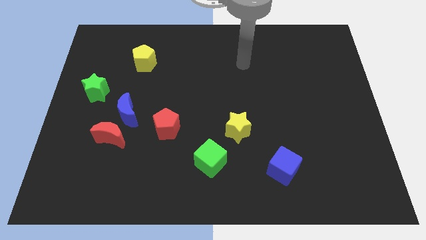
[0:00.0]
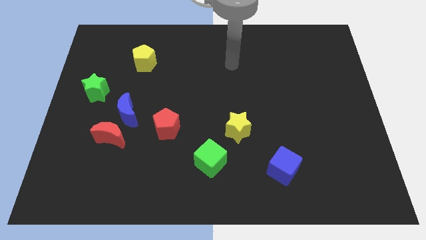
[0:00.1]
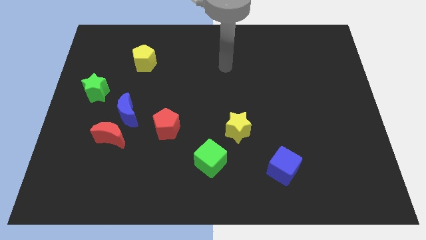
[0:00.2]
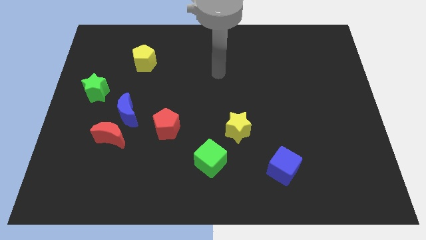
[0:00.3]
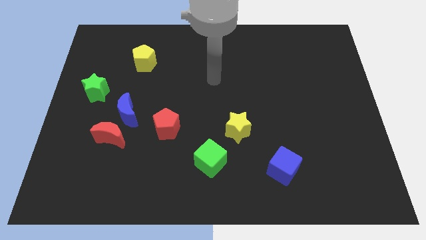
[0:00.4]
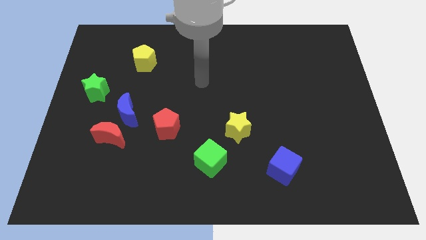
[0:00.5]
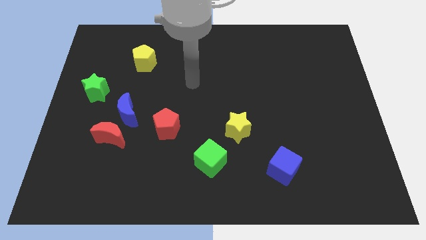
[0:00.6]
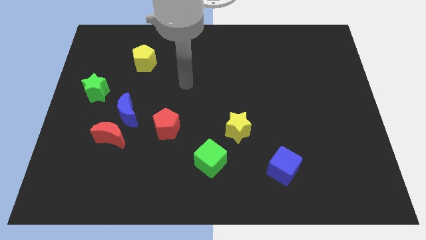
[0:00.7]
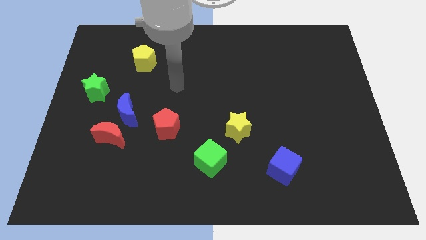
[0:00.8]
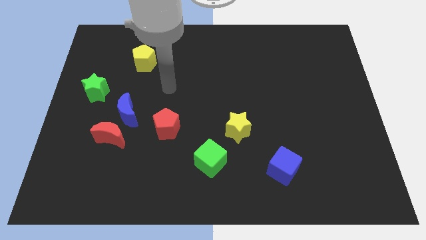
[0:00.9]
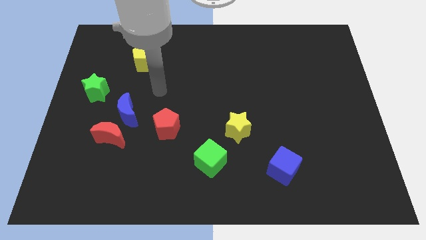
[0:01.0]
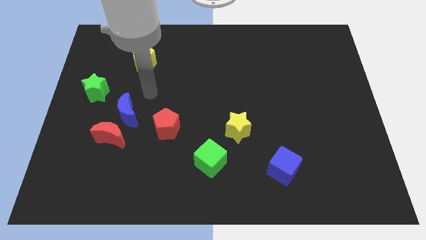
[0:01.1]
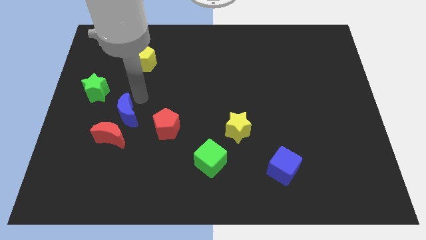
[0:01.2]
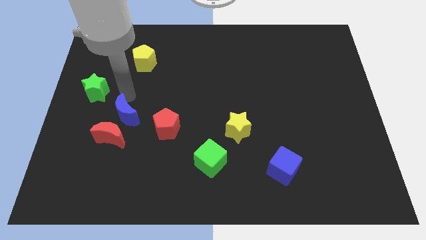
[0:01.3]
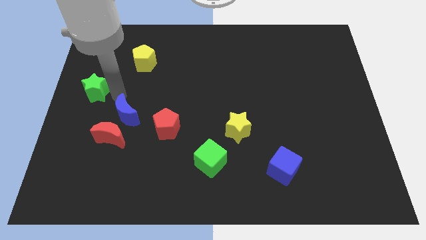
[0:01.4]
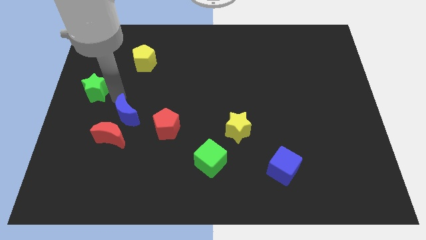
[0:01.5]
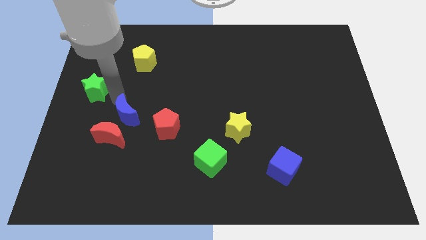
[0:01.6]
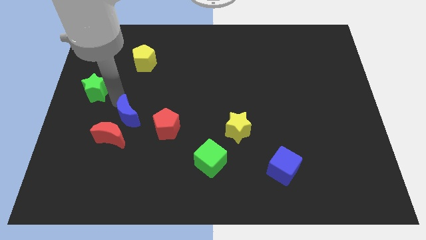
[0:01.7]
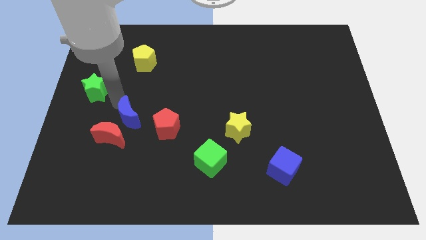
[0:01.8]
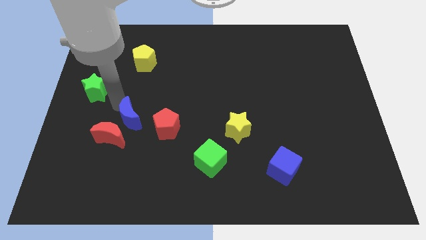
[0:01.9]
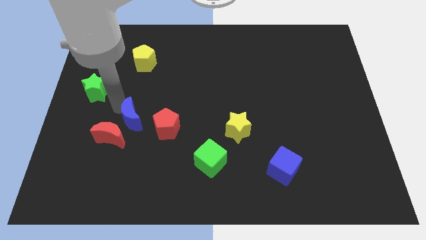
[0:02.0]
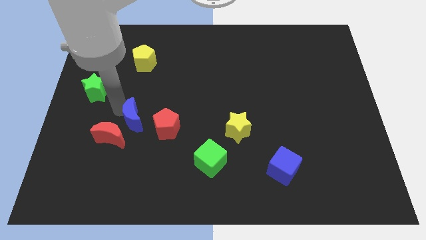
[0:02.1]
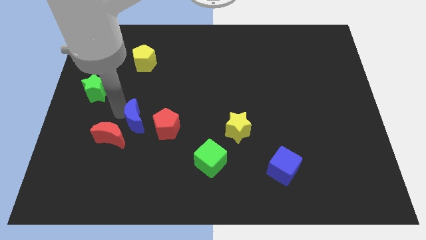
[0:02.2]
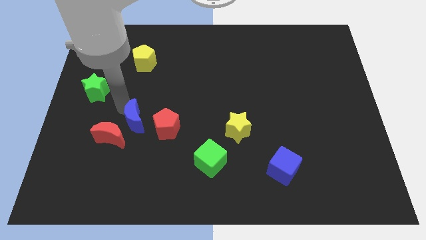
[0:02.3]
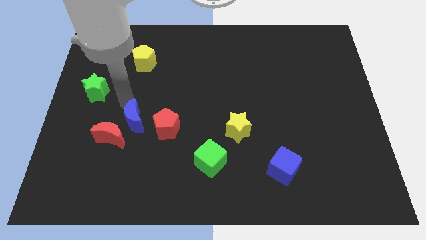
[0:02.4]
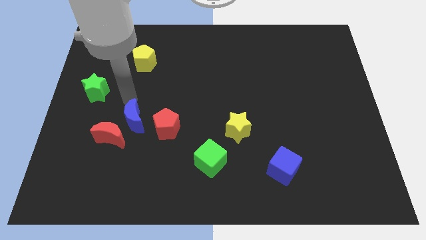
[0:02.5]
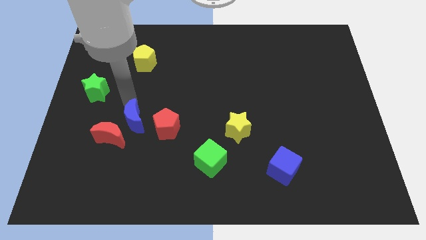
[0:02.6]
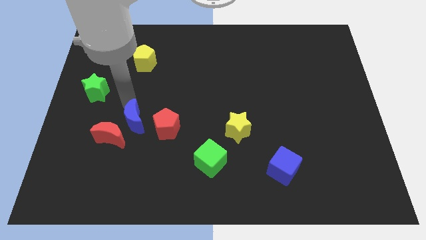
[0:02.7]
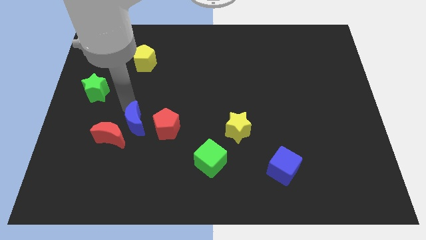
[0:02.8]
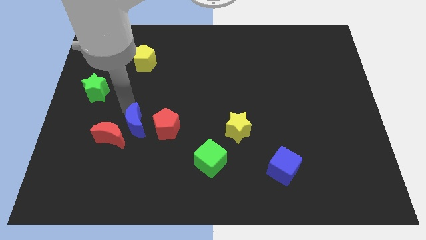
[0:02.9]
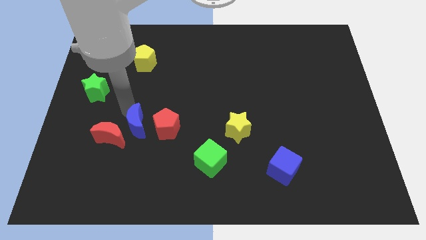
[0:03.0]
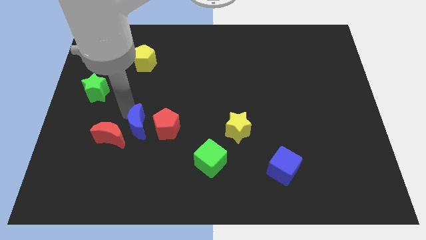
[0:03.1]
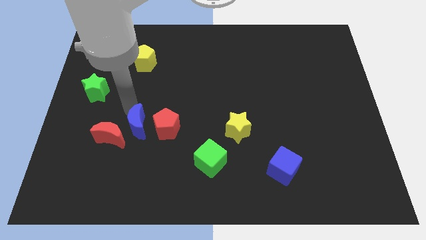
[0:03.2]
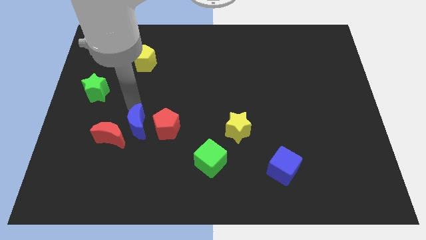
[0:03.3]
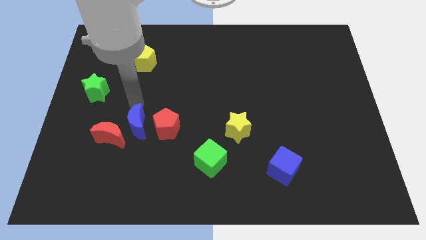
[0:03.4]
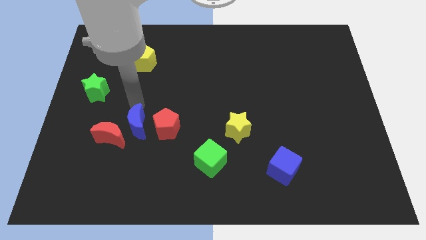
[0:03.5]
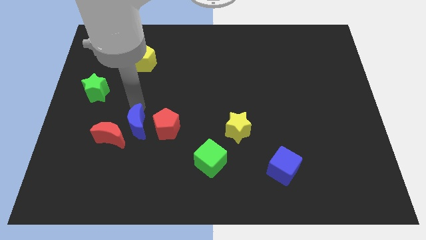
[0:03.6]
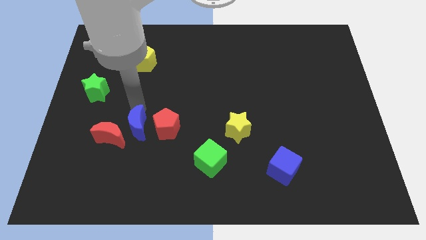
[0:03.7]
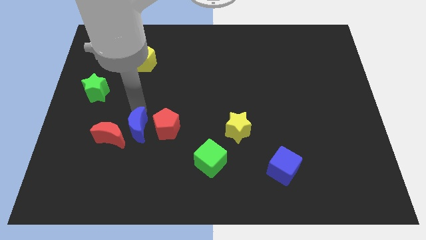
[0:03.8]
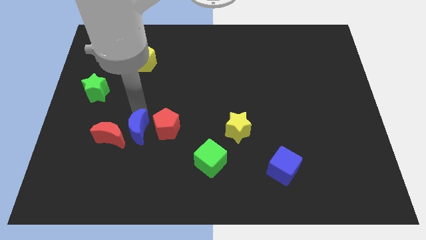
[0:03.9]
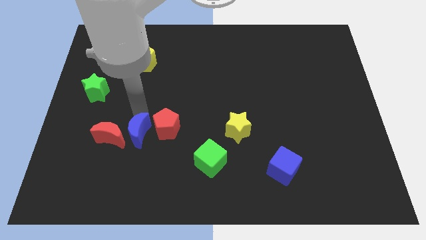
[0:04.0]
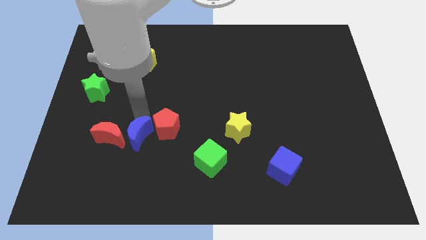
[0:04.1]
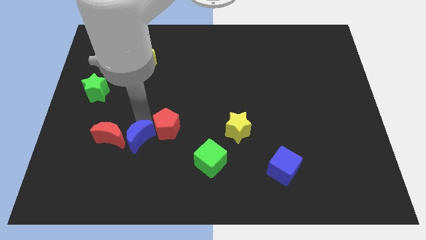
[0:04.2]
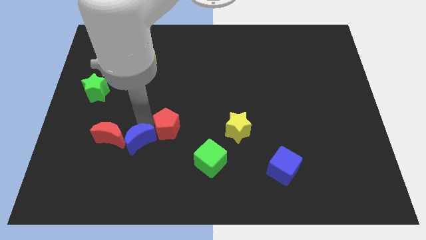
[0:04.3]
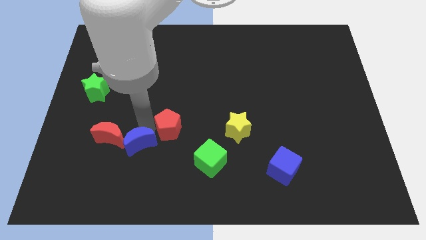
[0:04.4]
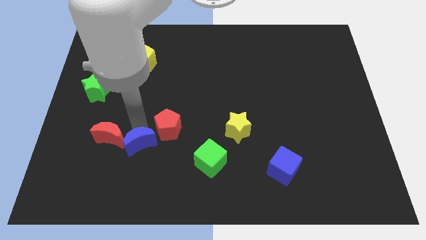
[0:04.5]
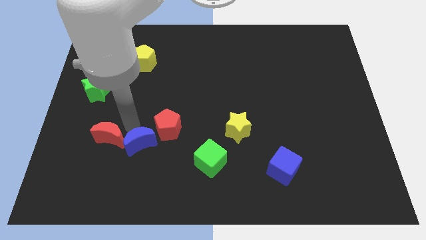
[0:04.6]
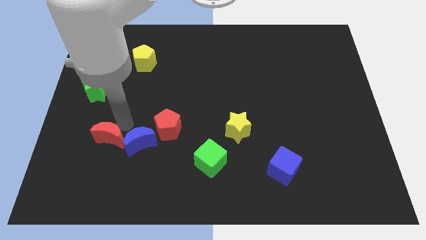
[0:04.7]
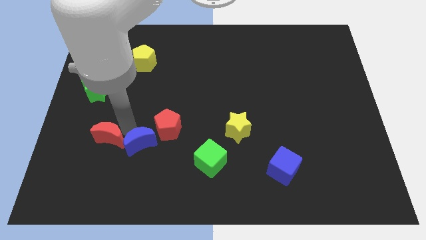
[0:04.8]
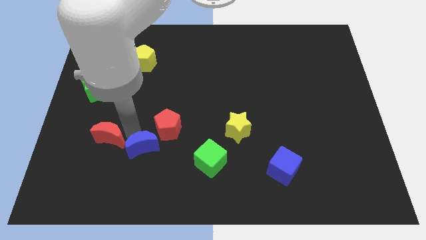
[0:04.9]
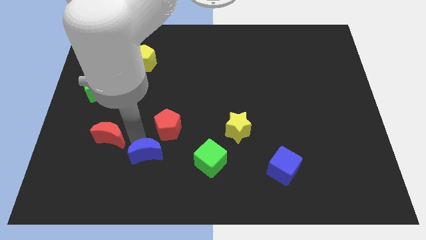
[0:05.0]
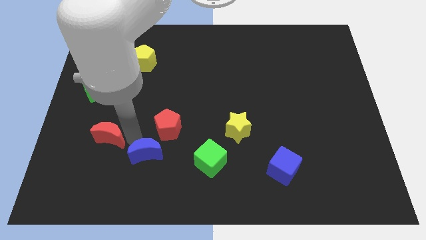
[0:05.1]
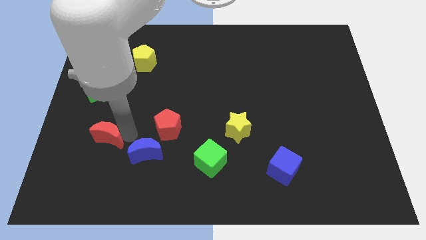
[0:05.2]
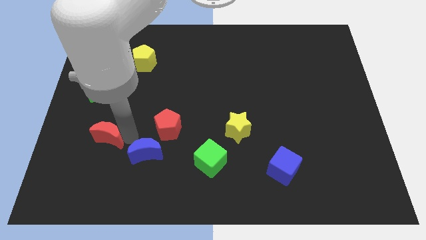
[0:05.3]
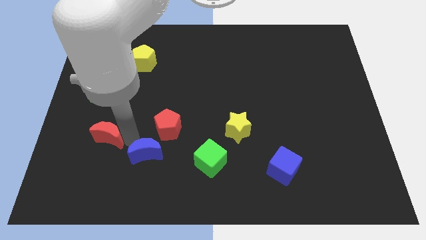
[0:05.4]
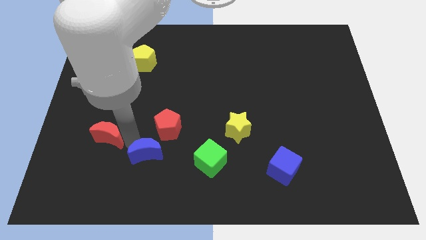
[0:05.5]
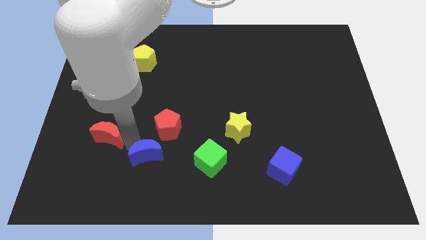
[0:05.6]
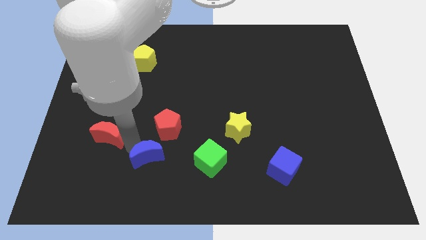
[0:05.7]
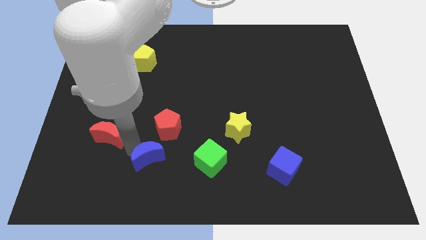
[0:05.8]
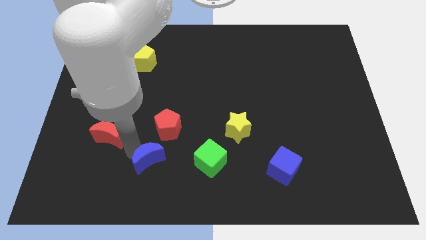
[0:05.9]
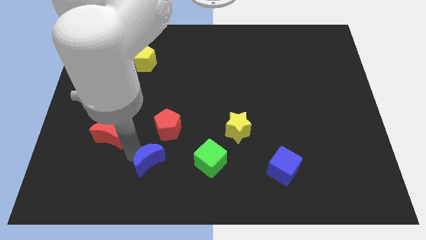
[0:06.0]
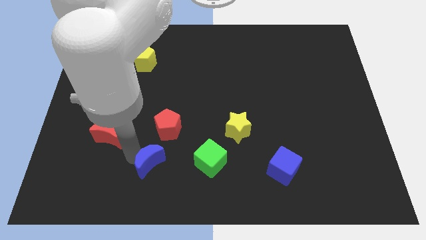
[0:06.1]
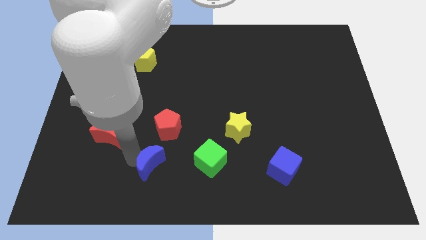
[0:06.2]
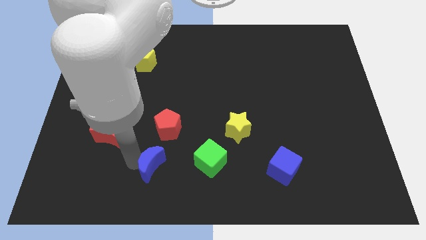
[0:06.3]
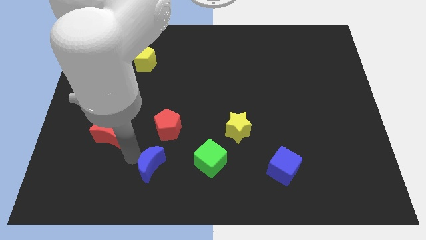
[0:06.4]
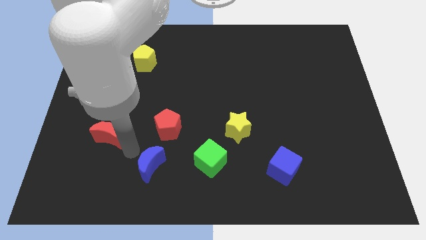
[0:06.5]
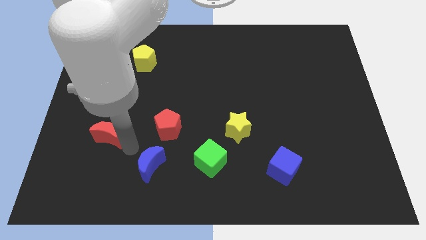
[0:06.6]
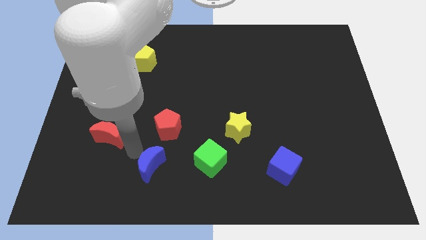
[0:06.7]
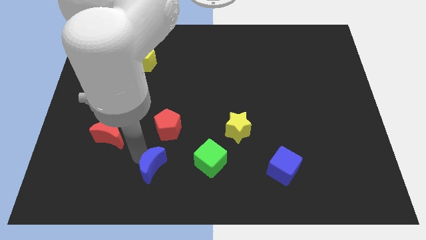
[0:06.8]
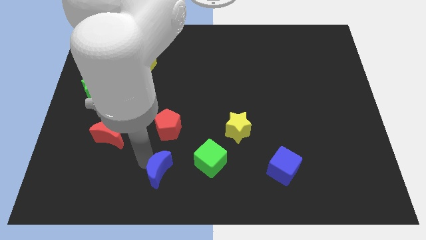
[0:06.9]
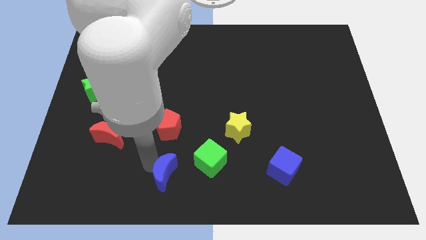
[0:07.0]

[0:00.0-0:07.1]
move the blue moon to the bottom
